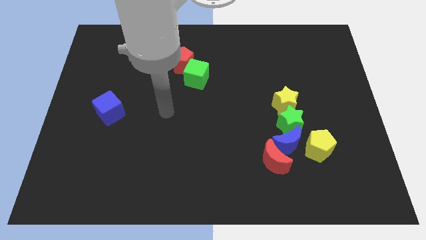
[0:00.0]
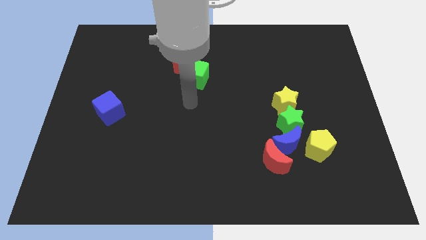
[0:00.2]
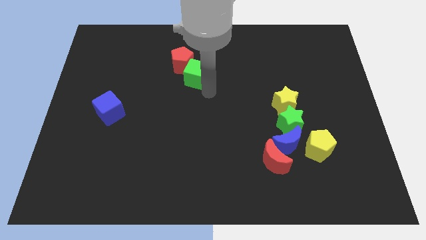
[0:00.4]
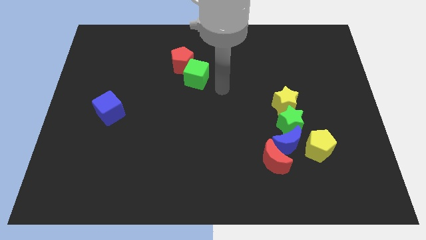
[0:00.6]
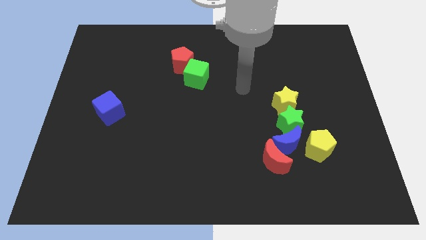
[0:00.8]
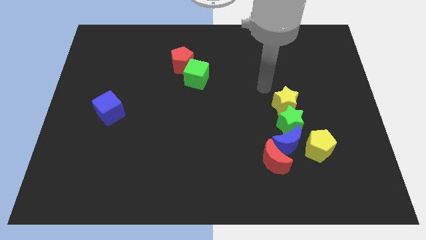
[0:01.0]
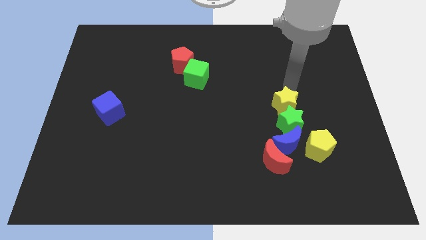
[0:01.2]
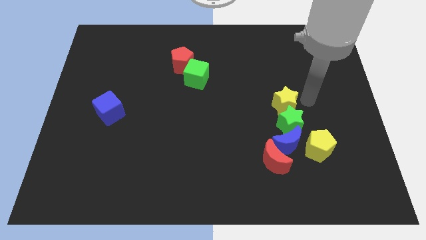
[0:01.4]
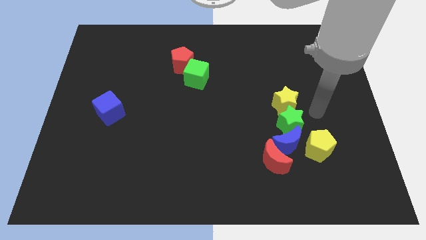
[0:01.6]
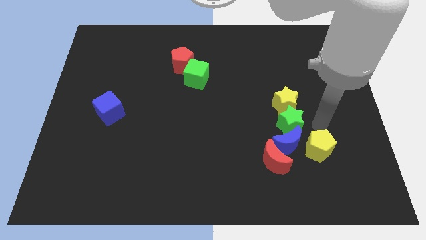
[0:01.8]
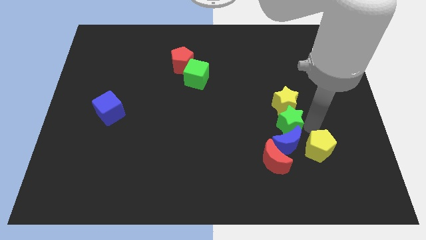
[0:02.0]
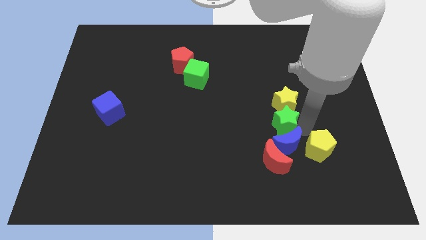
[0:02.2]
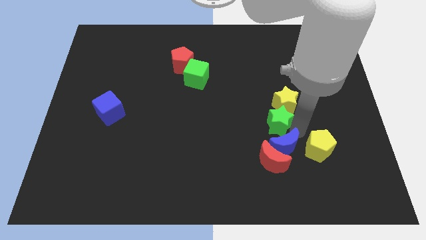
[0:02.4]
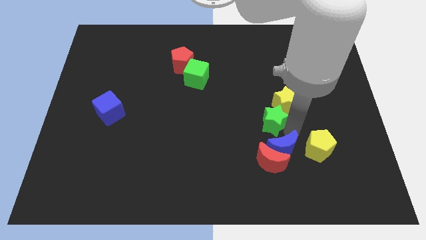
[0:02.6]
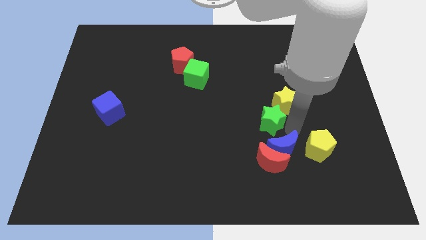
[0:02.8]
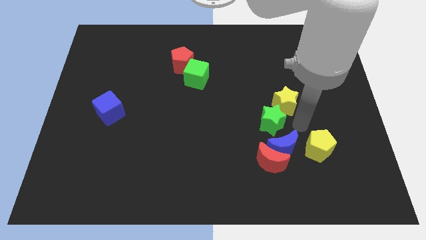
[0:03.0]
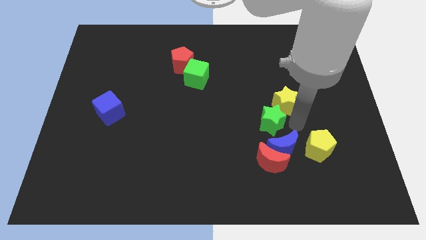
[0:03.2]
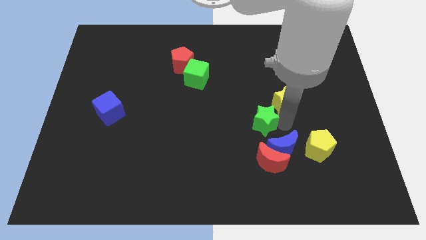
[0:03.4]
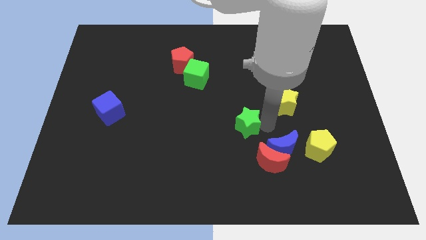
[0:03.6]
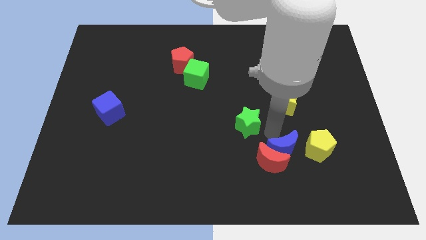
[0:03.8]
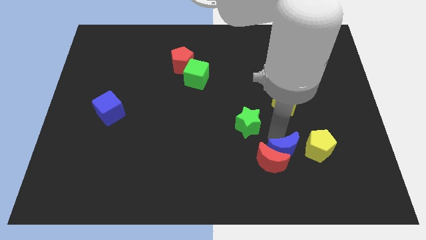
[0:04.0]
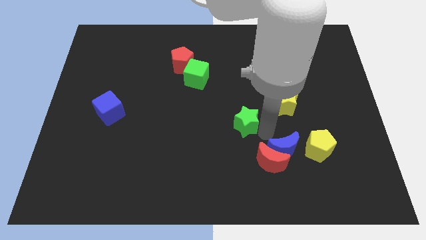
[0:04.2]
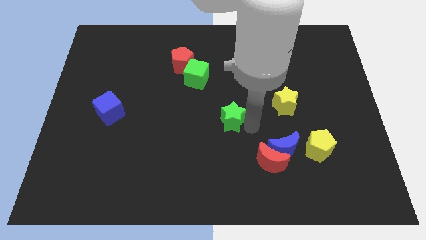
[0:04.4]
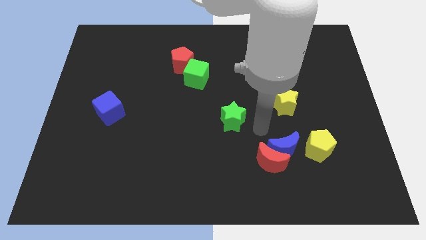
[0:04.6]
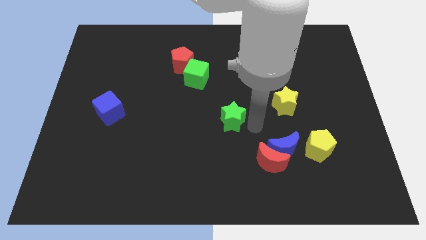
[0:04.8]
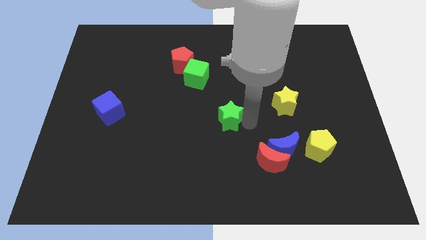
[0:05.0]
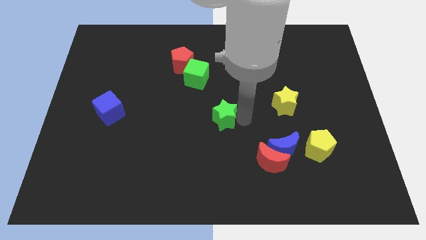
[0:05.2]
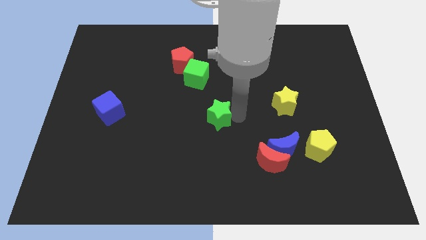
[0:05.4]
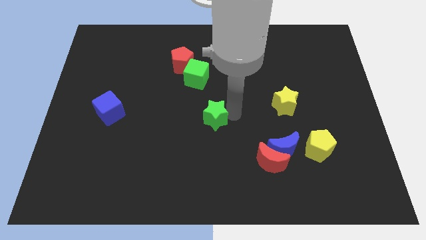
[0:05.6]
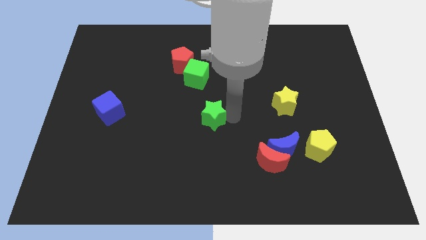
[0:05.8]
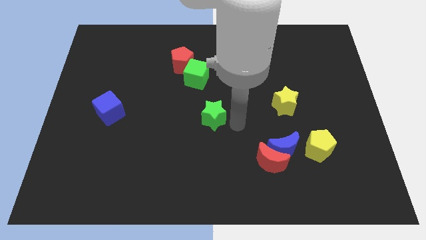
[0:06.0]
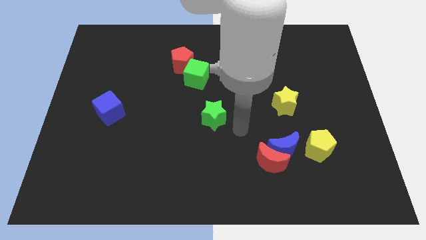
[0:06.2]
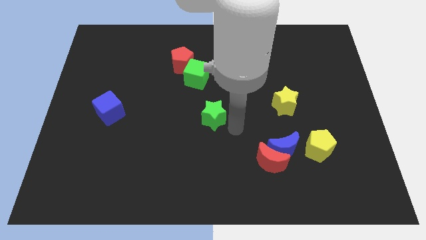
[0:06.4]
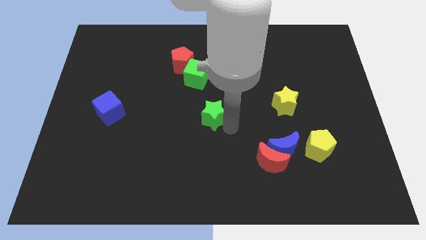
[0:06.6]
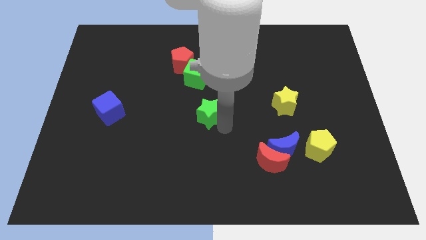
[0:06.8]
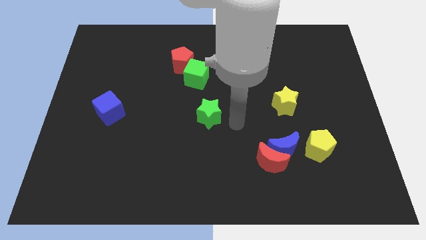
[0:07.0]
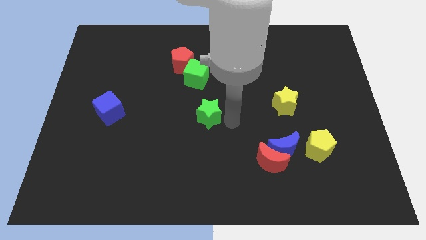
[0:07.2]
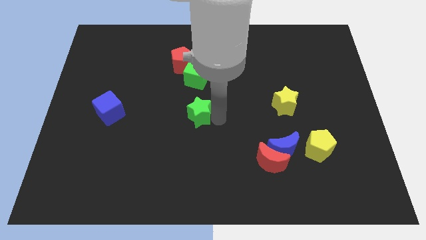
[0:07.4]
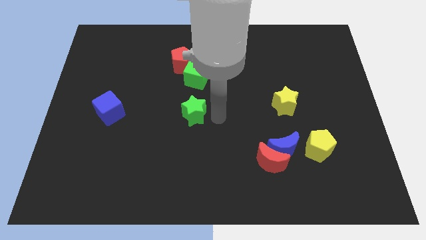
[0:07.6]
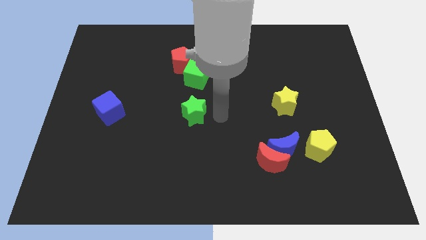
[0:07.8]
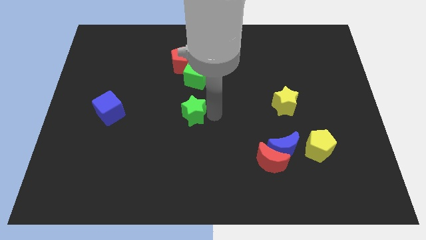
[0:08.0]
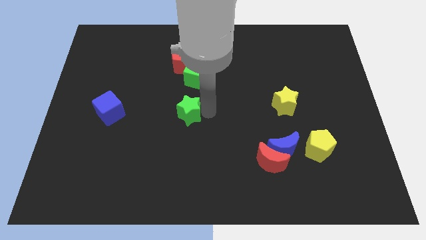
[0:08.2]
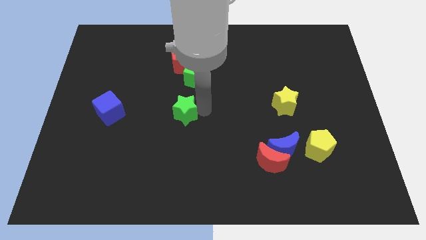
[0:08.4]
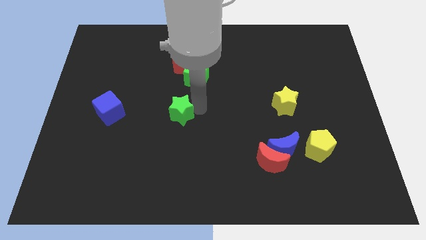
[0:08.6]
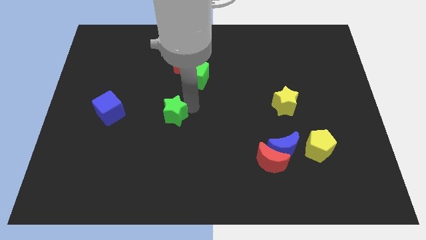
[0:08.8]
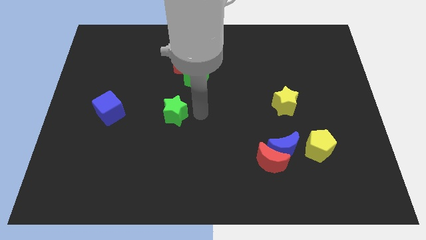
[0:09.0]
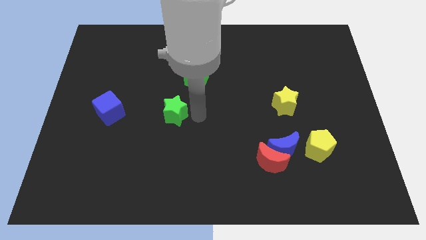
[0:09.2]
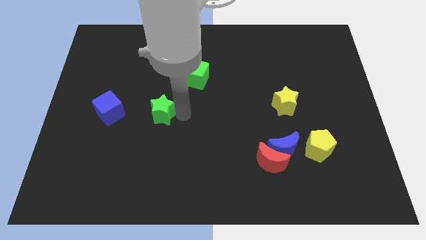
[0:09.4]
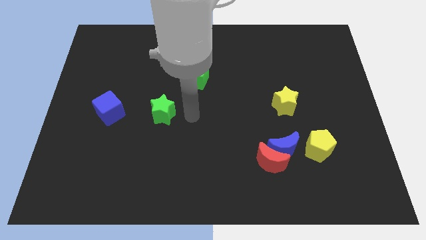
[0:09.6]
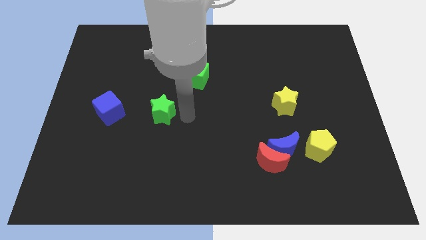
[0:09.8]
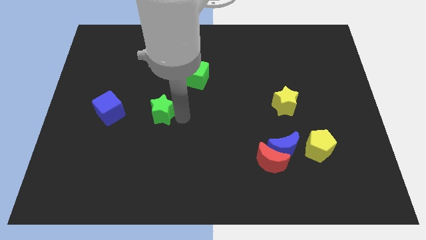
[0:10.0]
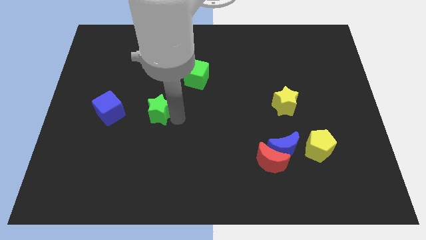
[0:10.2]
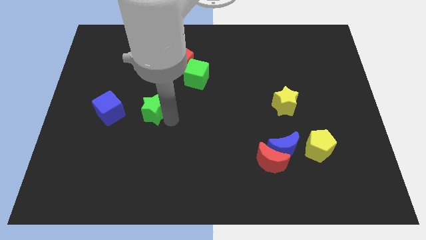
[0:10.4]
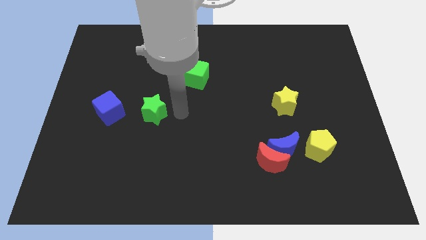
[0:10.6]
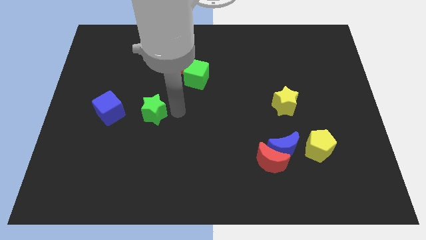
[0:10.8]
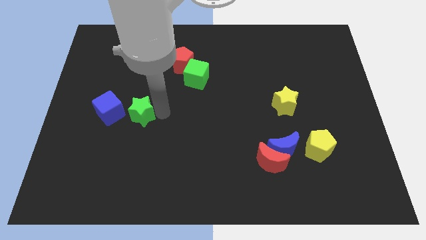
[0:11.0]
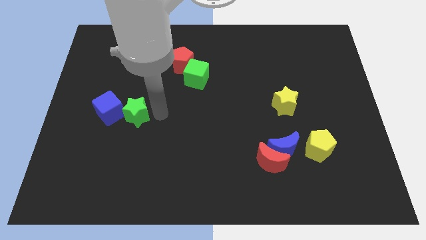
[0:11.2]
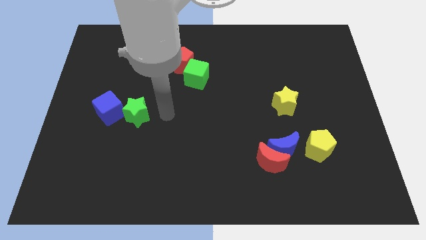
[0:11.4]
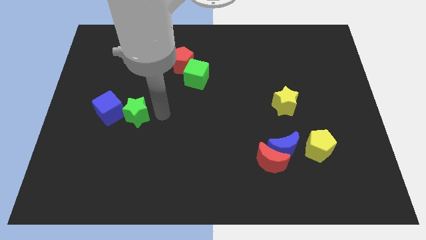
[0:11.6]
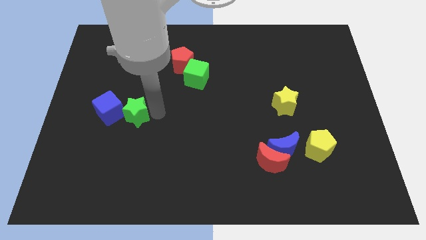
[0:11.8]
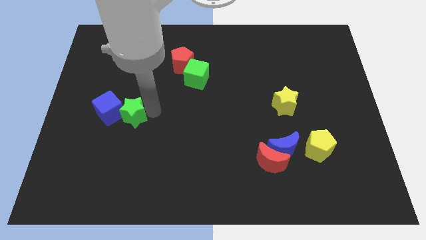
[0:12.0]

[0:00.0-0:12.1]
put the green star close to the blue cube
